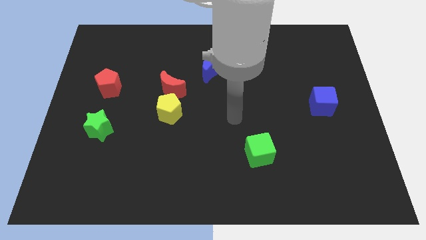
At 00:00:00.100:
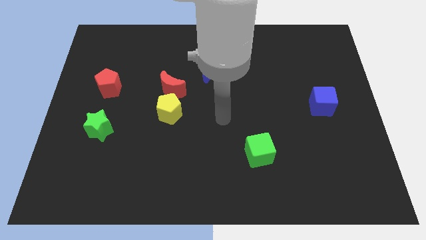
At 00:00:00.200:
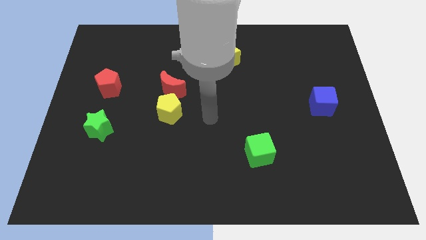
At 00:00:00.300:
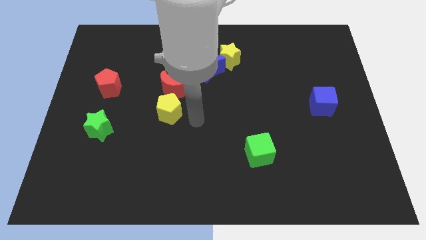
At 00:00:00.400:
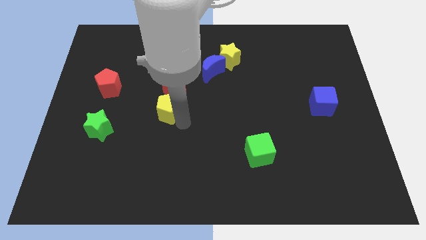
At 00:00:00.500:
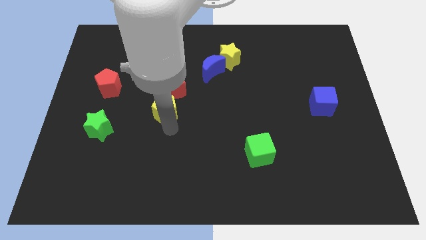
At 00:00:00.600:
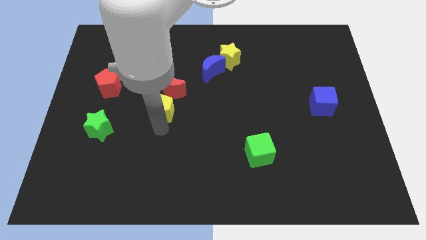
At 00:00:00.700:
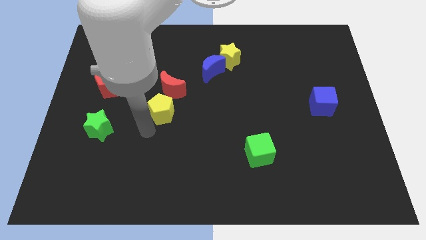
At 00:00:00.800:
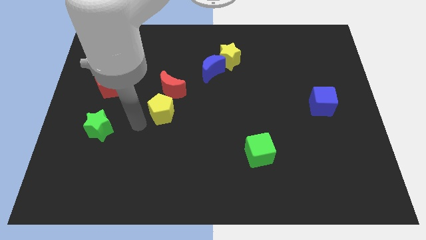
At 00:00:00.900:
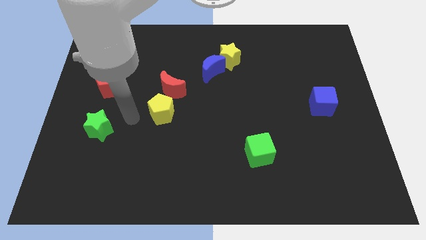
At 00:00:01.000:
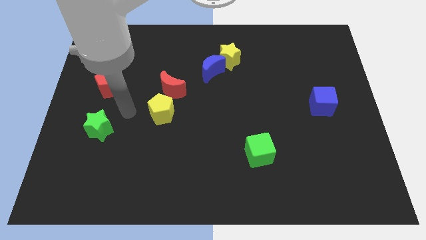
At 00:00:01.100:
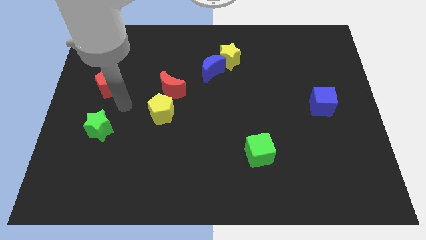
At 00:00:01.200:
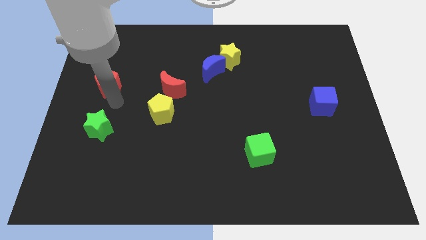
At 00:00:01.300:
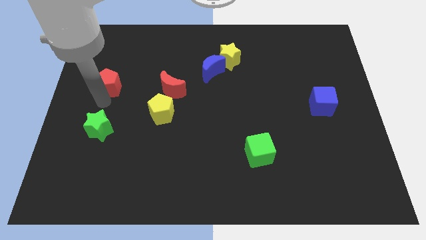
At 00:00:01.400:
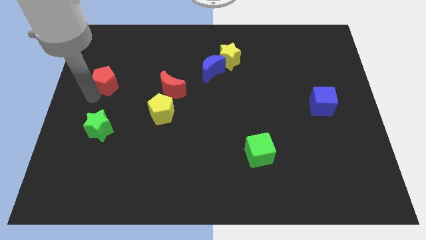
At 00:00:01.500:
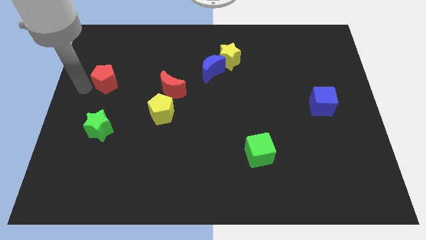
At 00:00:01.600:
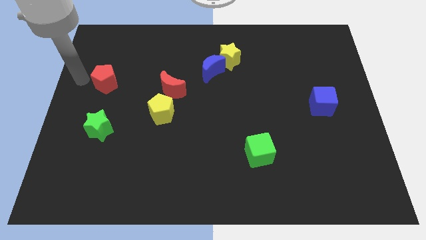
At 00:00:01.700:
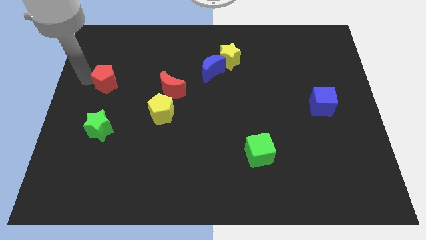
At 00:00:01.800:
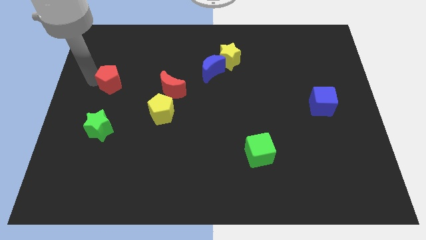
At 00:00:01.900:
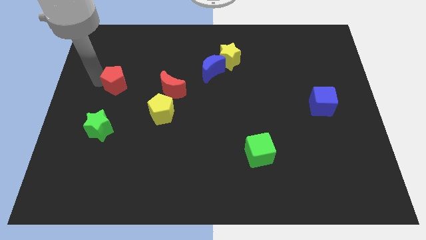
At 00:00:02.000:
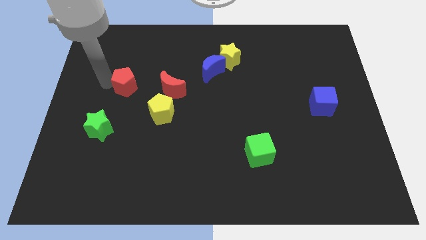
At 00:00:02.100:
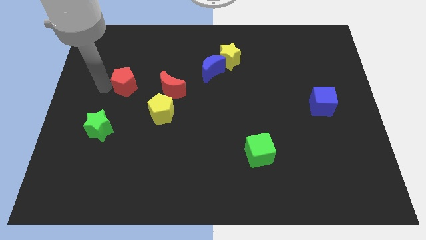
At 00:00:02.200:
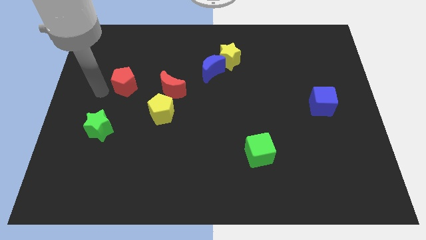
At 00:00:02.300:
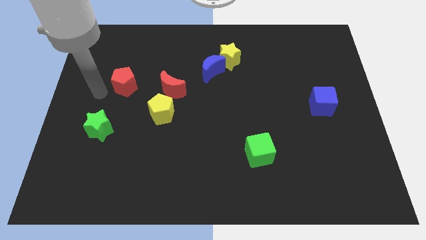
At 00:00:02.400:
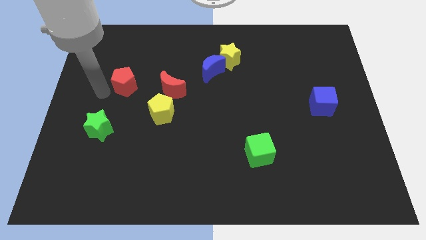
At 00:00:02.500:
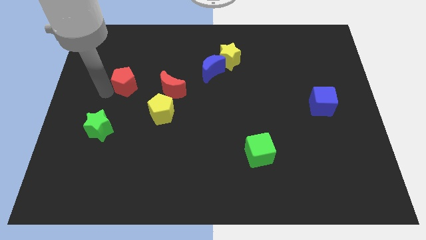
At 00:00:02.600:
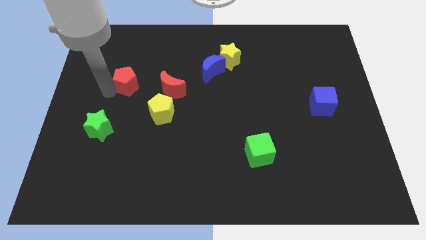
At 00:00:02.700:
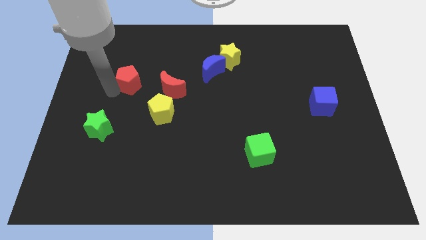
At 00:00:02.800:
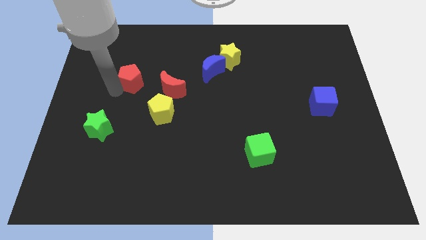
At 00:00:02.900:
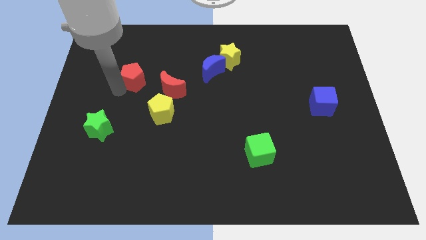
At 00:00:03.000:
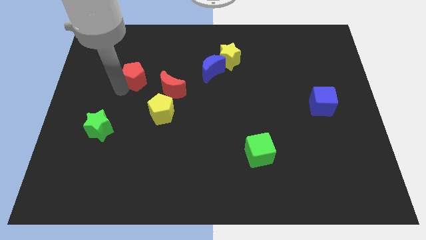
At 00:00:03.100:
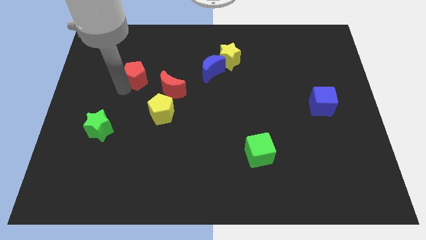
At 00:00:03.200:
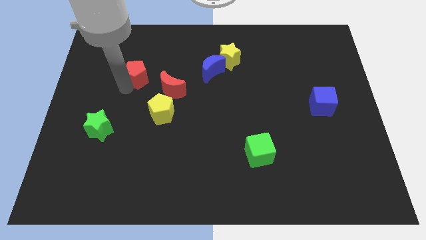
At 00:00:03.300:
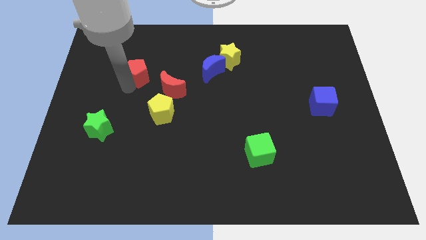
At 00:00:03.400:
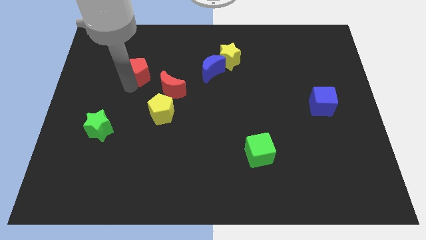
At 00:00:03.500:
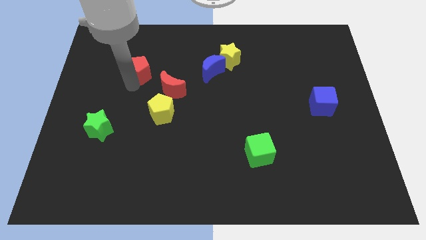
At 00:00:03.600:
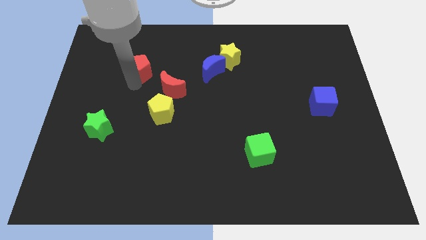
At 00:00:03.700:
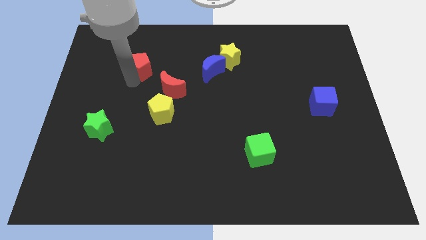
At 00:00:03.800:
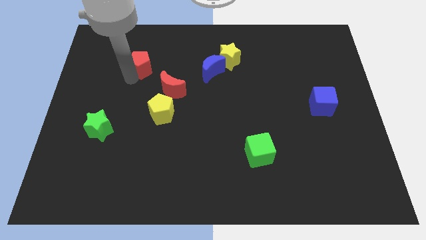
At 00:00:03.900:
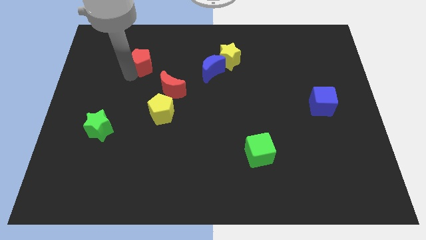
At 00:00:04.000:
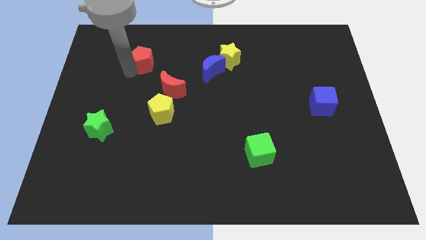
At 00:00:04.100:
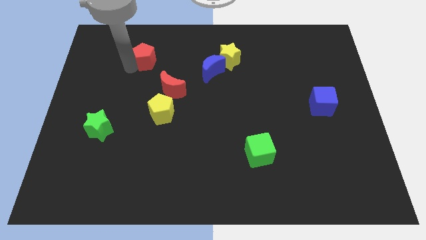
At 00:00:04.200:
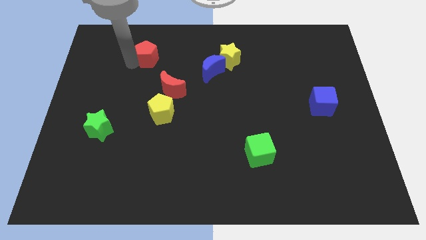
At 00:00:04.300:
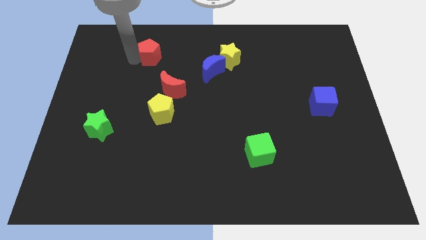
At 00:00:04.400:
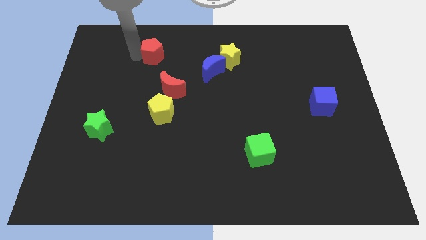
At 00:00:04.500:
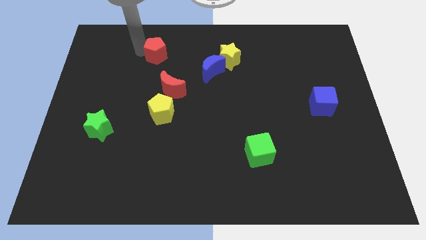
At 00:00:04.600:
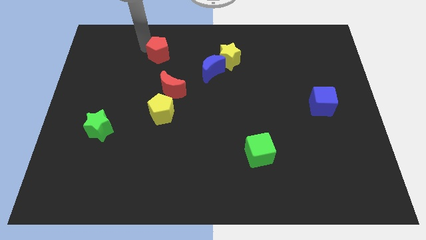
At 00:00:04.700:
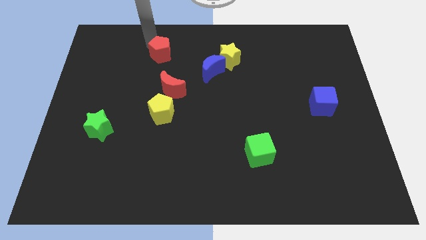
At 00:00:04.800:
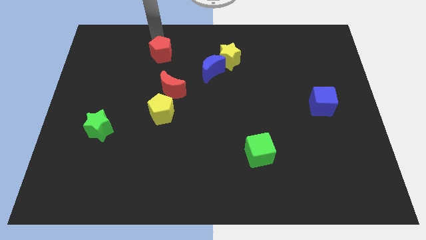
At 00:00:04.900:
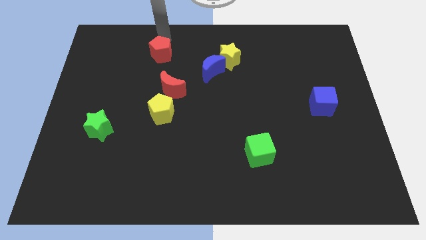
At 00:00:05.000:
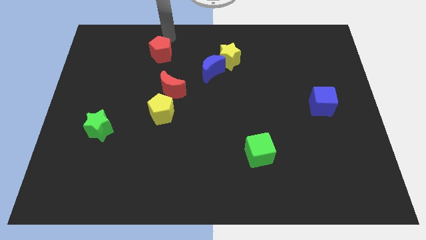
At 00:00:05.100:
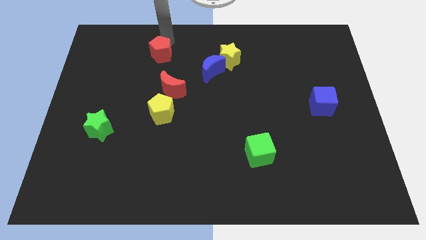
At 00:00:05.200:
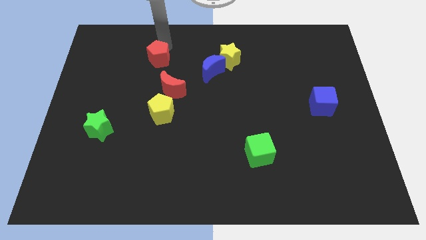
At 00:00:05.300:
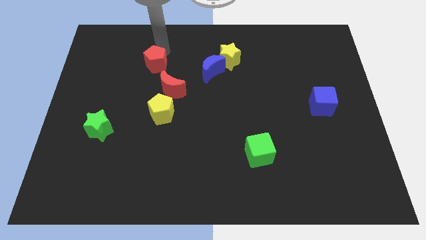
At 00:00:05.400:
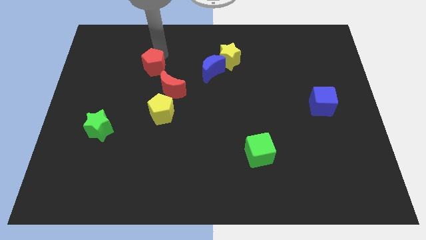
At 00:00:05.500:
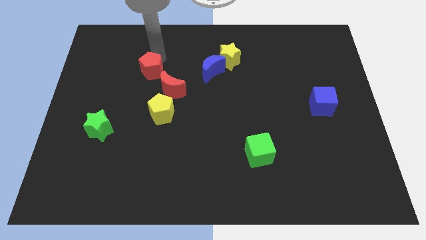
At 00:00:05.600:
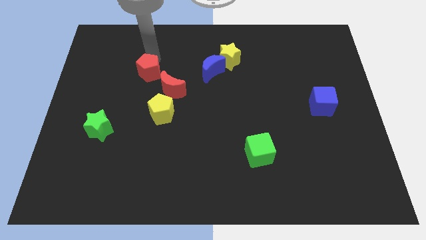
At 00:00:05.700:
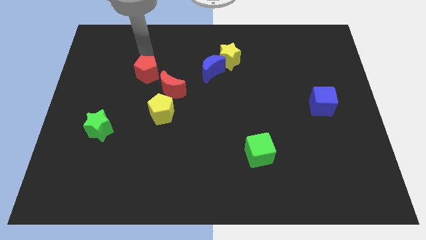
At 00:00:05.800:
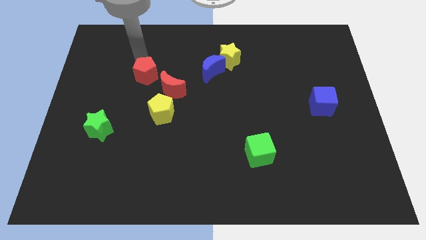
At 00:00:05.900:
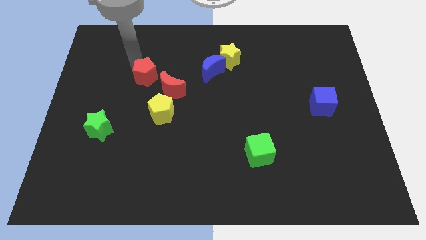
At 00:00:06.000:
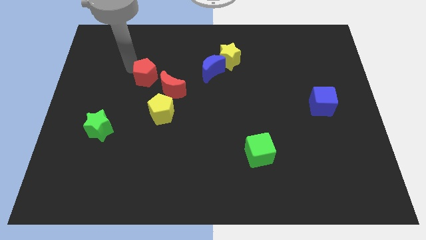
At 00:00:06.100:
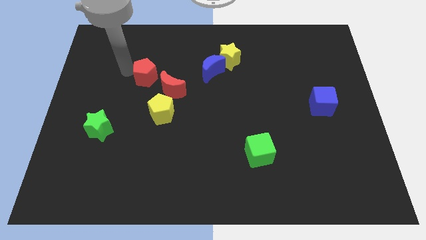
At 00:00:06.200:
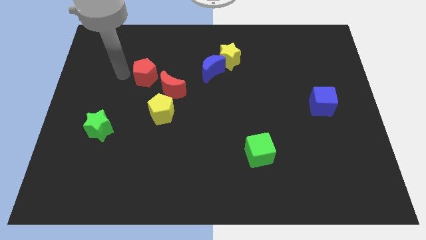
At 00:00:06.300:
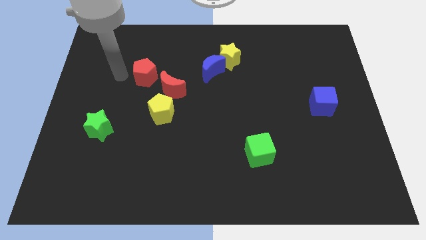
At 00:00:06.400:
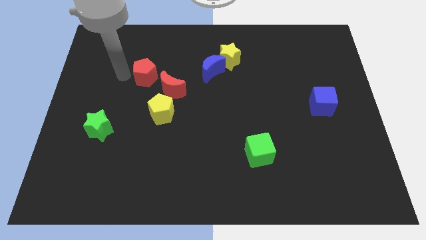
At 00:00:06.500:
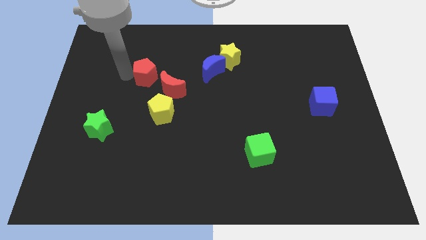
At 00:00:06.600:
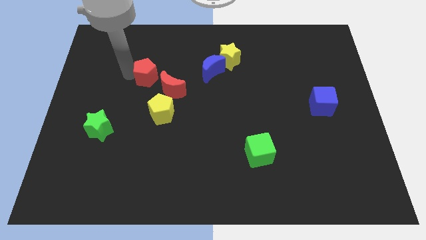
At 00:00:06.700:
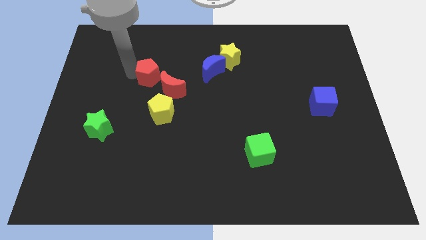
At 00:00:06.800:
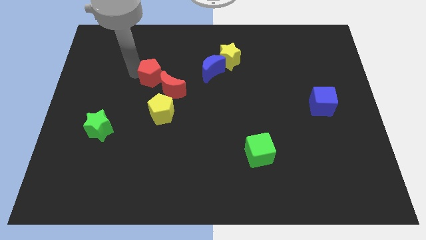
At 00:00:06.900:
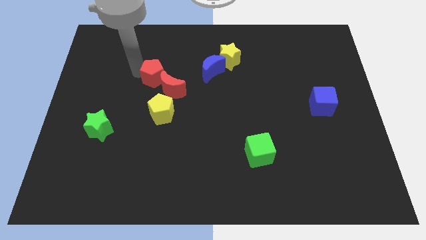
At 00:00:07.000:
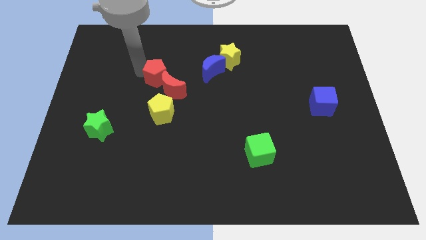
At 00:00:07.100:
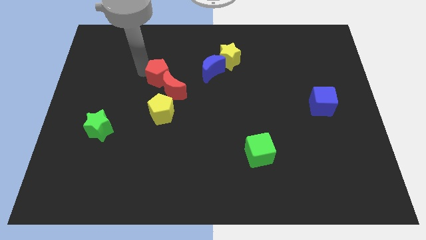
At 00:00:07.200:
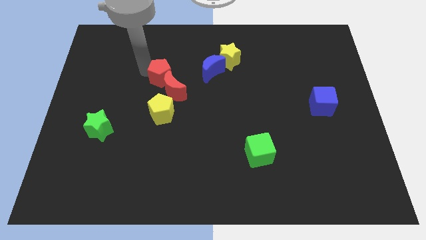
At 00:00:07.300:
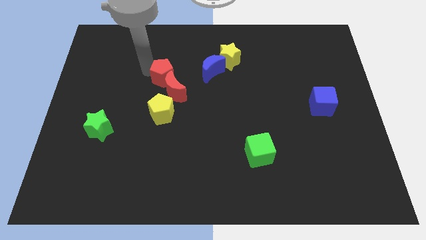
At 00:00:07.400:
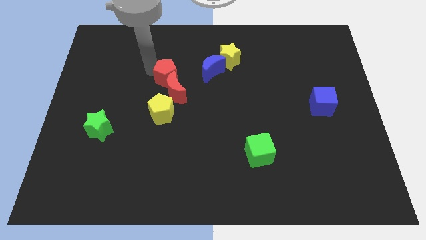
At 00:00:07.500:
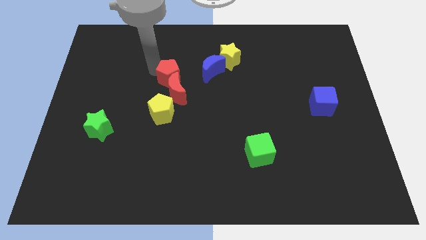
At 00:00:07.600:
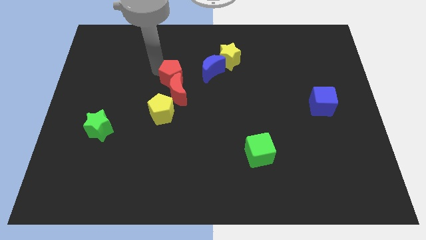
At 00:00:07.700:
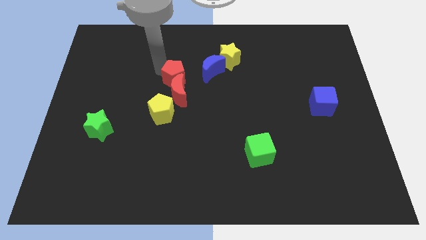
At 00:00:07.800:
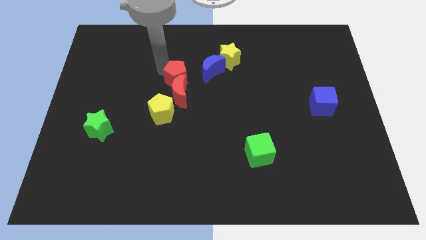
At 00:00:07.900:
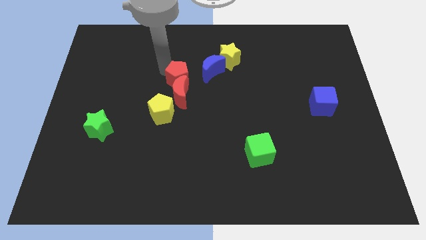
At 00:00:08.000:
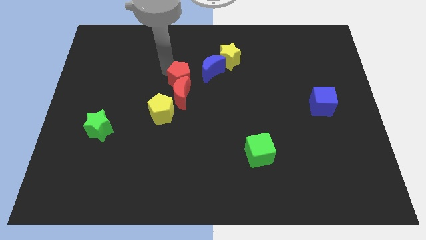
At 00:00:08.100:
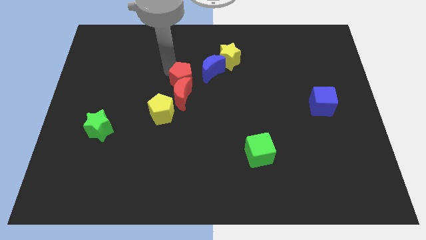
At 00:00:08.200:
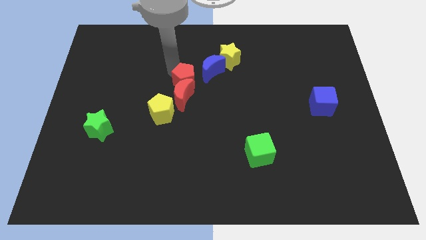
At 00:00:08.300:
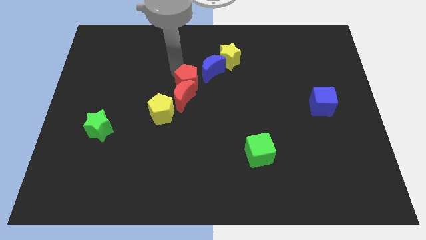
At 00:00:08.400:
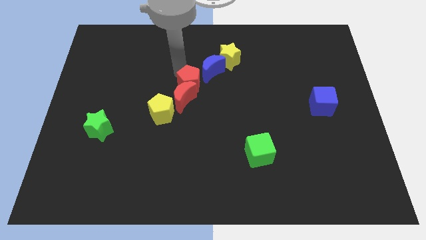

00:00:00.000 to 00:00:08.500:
push the red pentagon right
